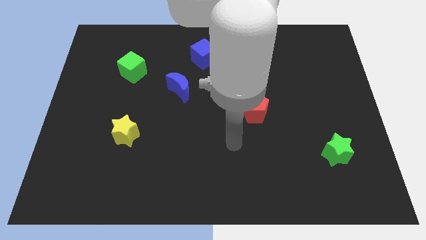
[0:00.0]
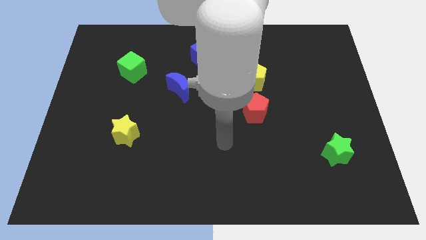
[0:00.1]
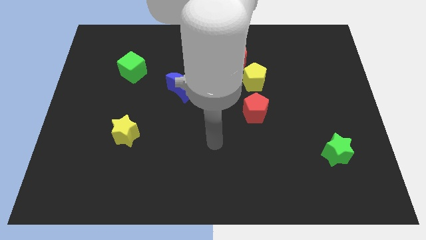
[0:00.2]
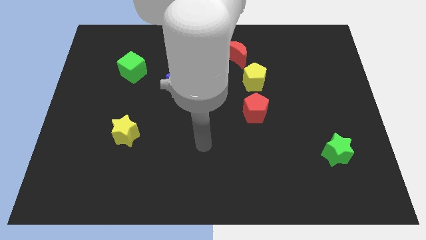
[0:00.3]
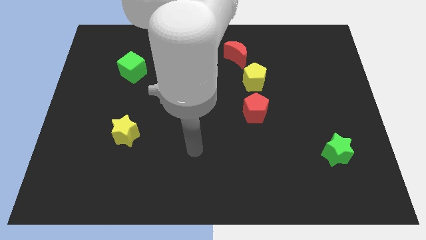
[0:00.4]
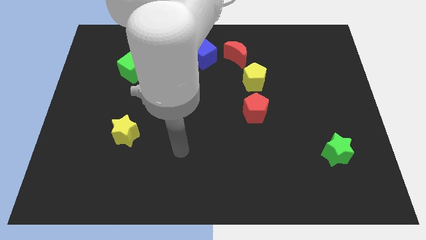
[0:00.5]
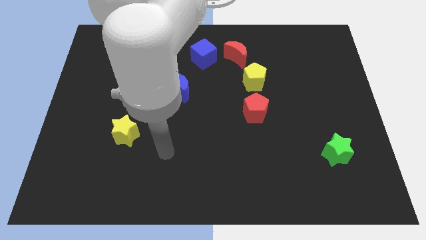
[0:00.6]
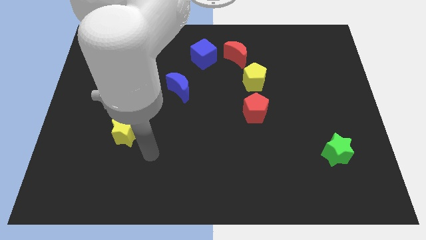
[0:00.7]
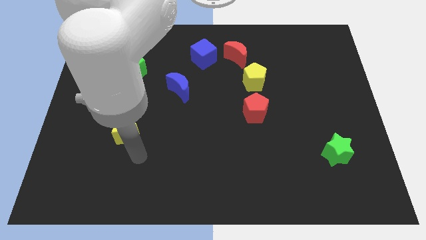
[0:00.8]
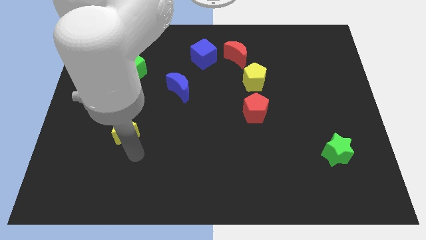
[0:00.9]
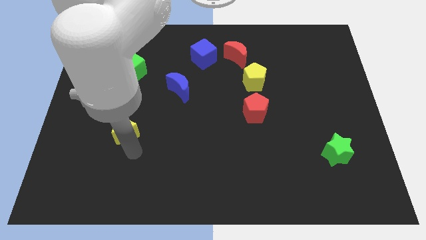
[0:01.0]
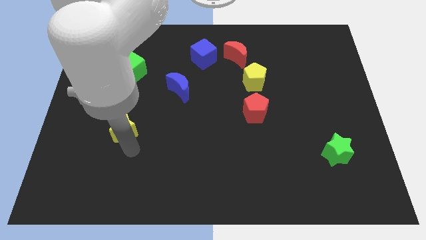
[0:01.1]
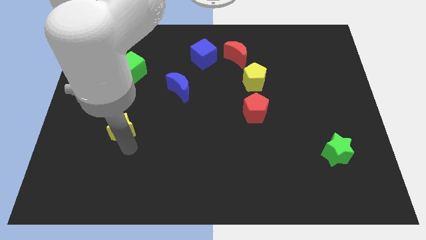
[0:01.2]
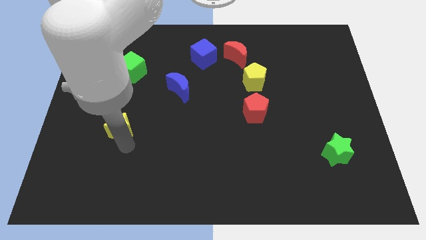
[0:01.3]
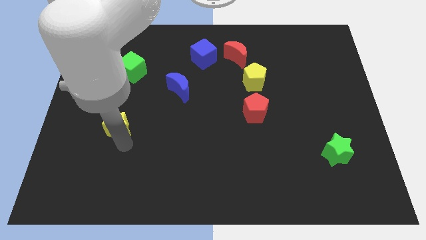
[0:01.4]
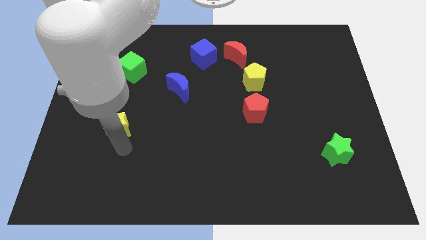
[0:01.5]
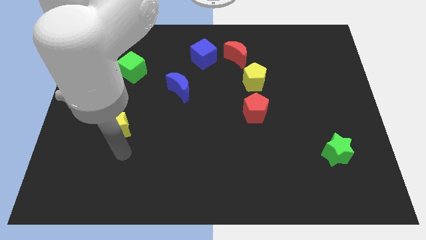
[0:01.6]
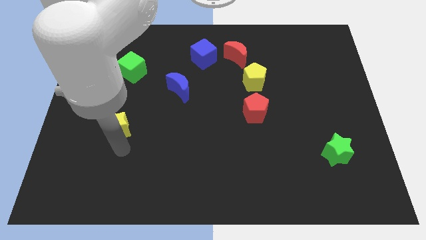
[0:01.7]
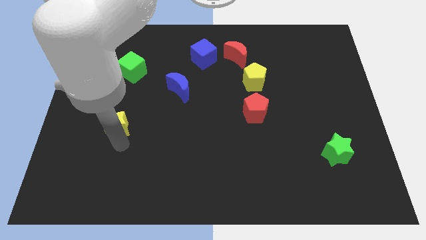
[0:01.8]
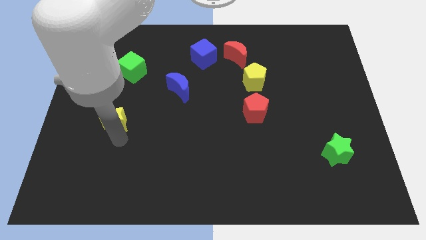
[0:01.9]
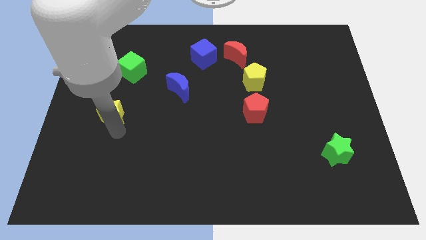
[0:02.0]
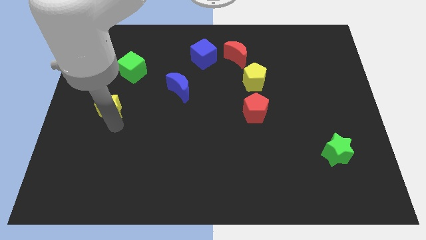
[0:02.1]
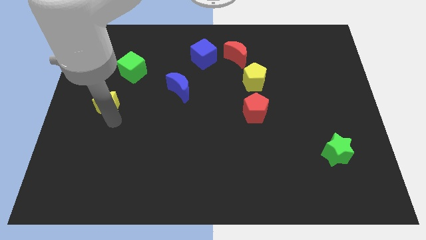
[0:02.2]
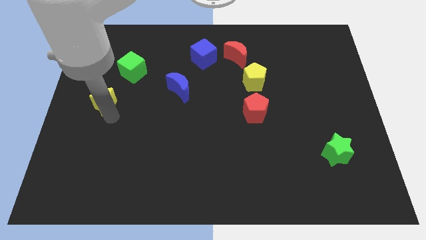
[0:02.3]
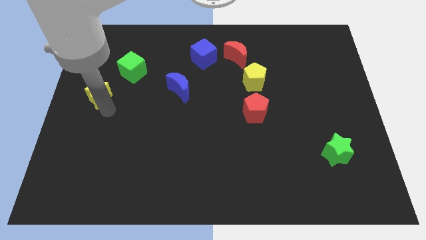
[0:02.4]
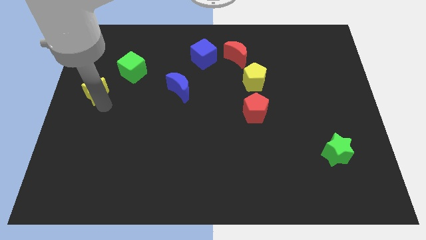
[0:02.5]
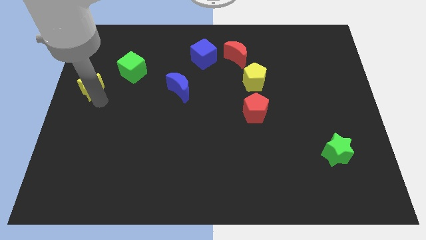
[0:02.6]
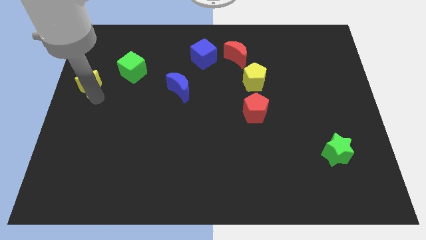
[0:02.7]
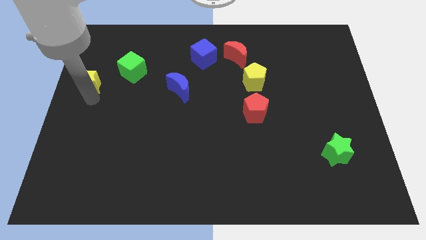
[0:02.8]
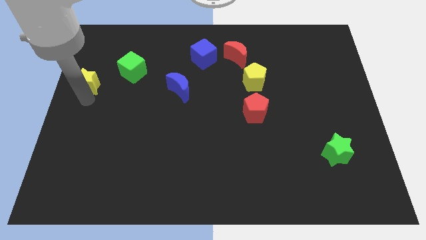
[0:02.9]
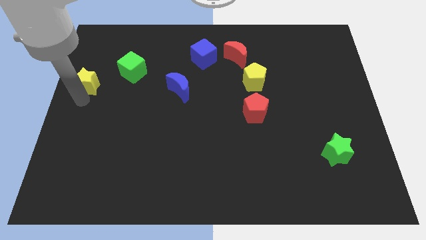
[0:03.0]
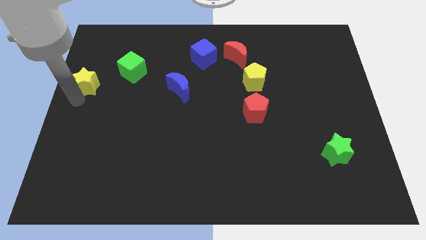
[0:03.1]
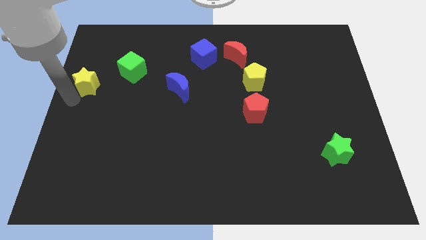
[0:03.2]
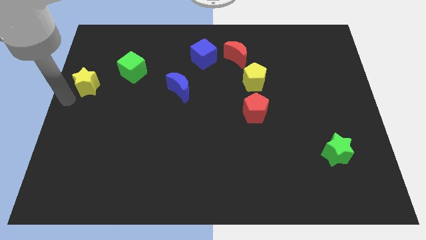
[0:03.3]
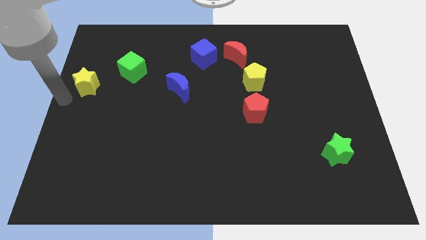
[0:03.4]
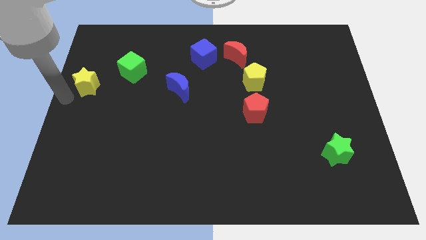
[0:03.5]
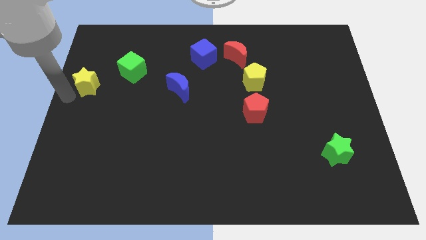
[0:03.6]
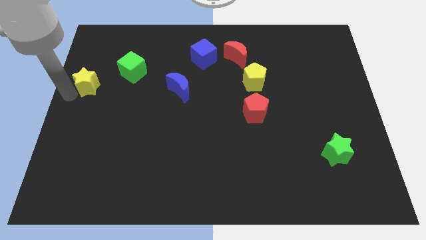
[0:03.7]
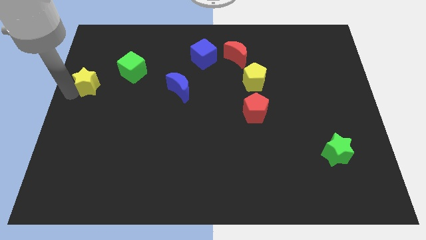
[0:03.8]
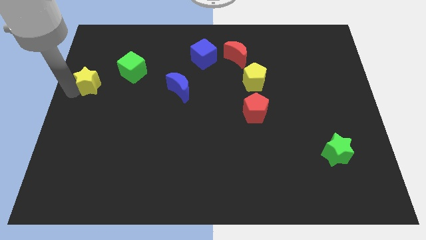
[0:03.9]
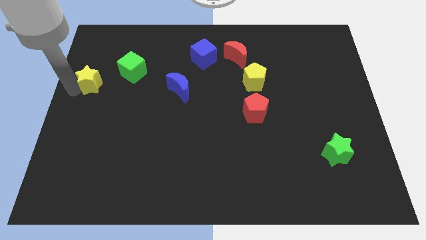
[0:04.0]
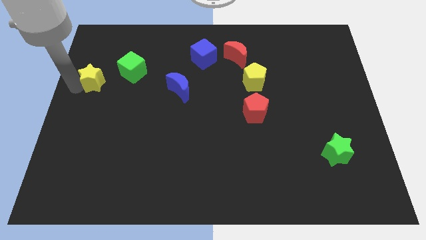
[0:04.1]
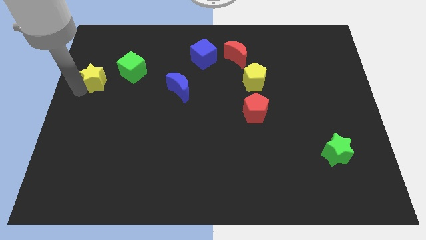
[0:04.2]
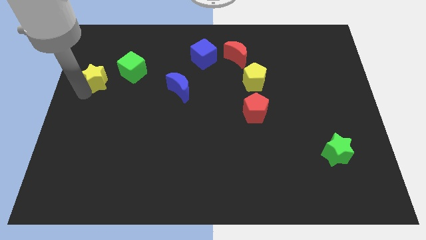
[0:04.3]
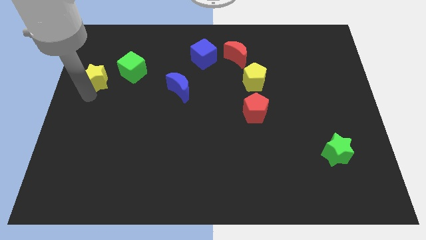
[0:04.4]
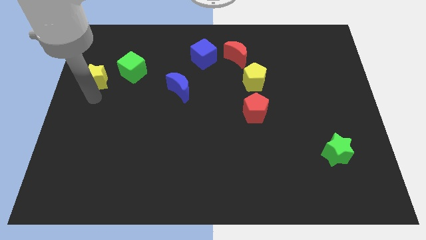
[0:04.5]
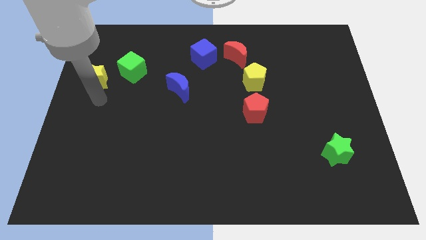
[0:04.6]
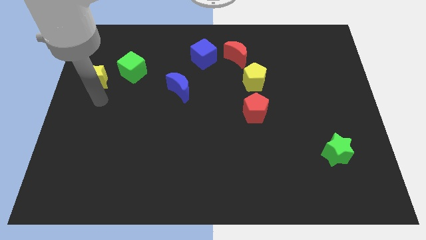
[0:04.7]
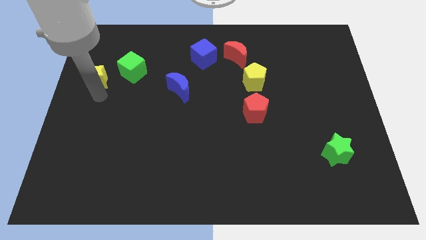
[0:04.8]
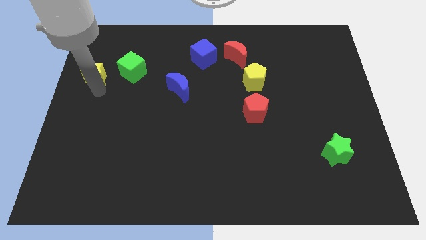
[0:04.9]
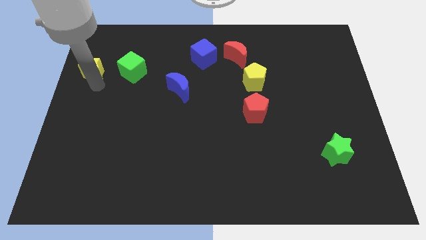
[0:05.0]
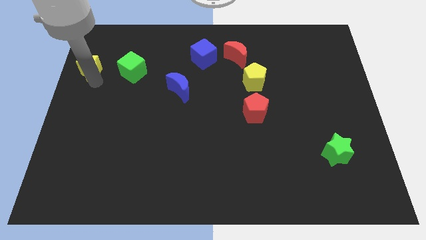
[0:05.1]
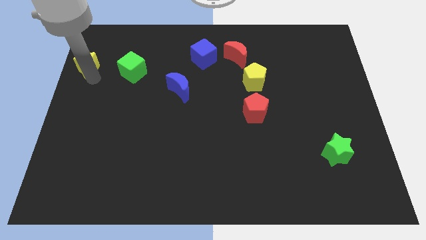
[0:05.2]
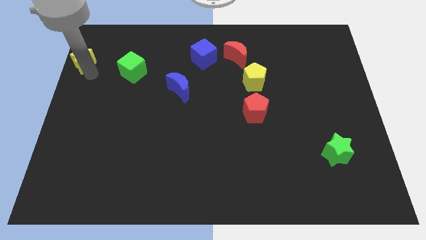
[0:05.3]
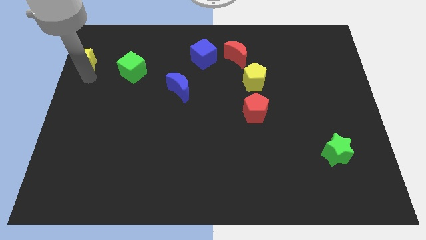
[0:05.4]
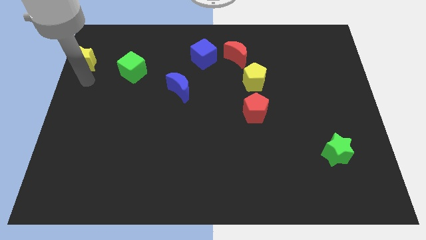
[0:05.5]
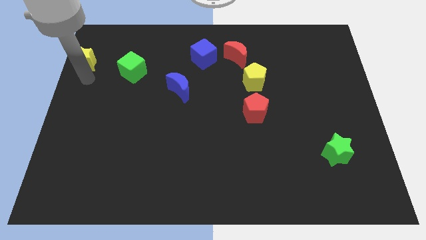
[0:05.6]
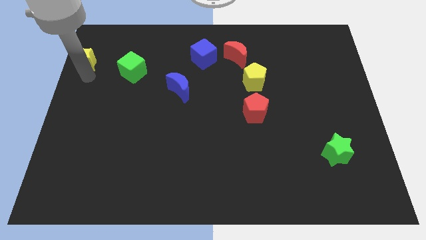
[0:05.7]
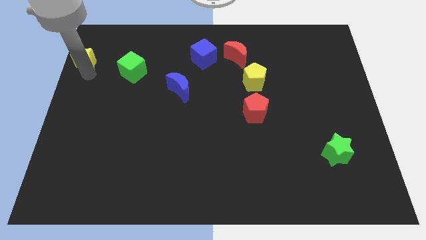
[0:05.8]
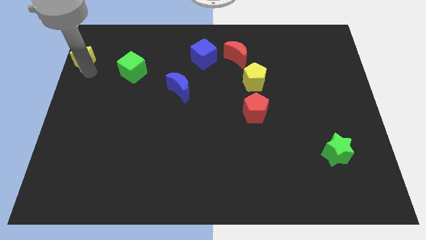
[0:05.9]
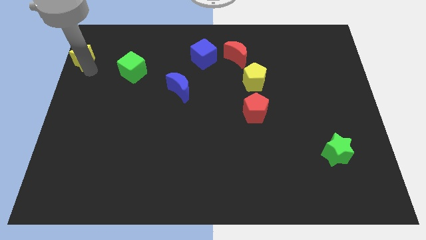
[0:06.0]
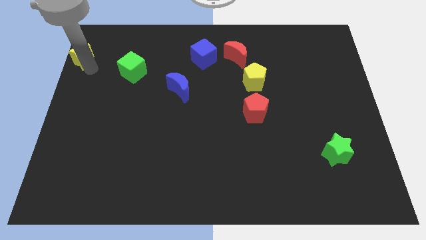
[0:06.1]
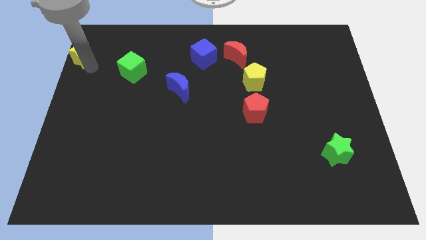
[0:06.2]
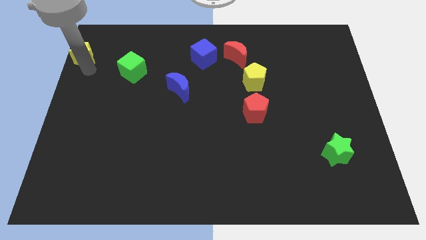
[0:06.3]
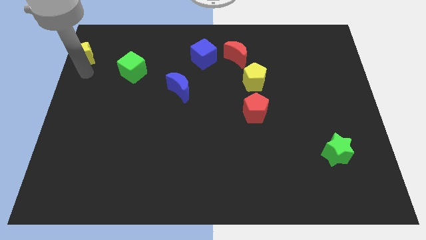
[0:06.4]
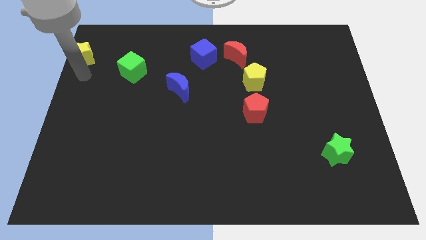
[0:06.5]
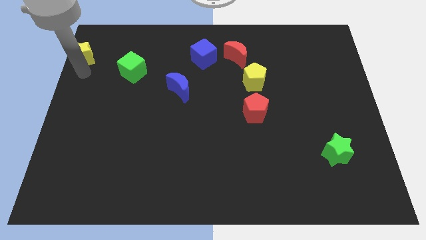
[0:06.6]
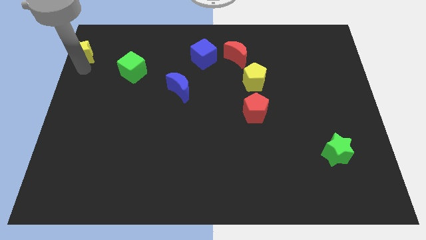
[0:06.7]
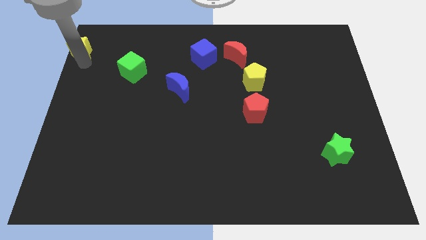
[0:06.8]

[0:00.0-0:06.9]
slide the yellow star to the top left
